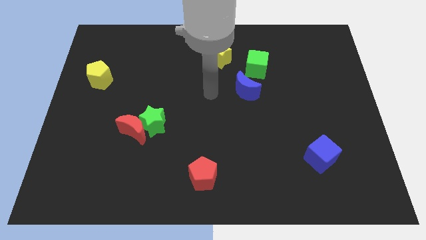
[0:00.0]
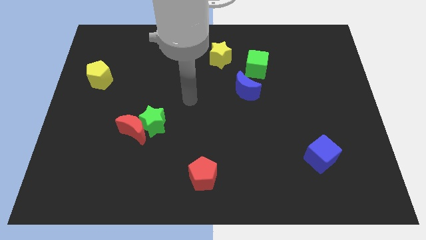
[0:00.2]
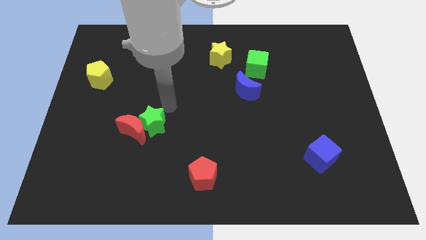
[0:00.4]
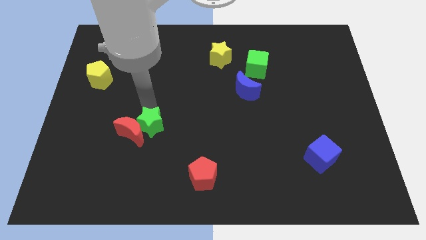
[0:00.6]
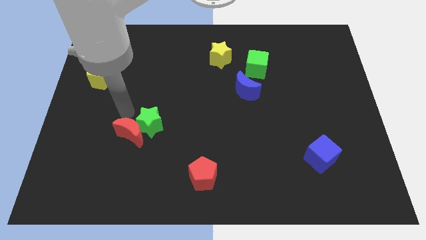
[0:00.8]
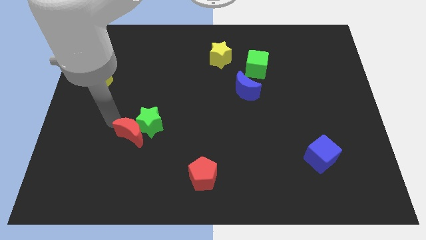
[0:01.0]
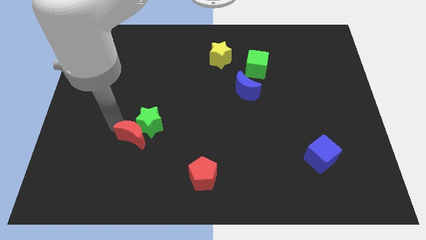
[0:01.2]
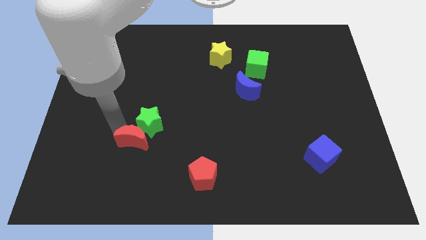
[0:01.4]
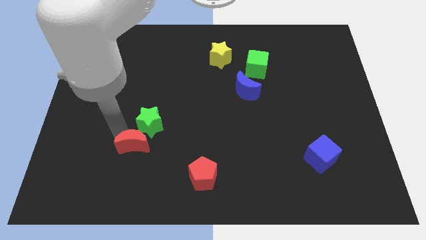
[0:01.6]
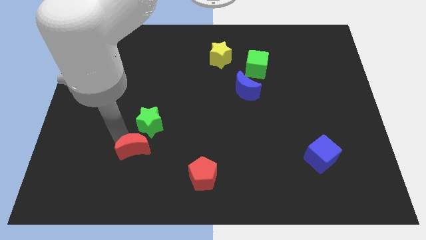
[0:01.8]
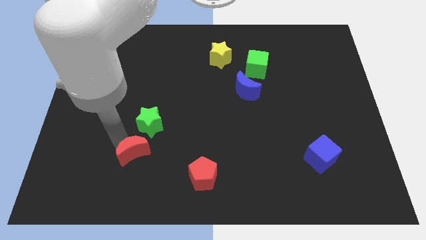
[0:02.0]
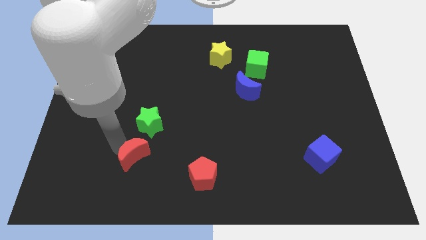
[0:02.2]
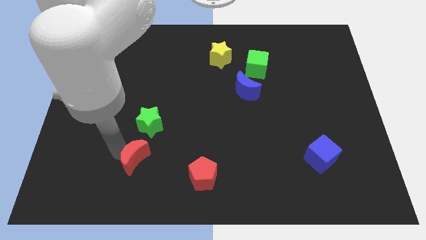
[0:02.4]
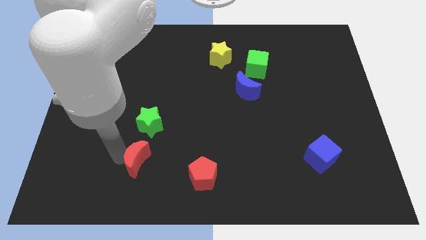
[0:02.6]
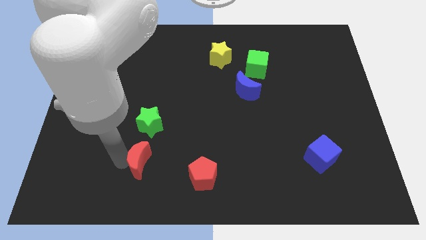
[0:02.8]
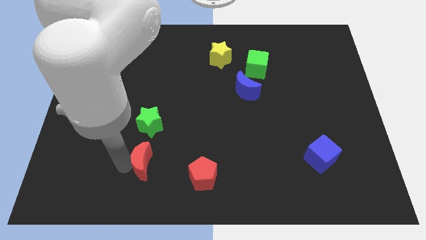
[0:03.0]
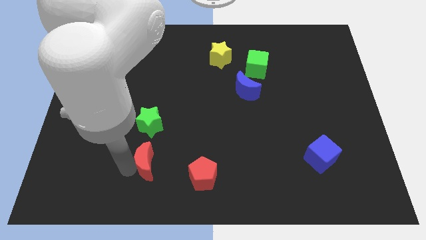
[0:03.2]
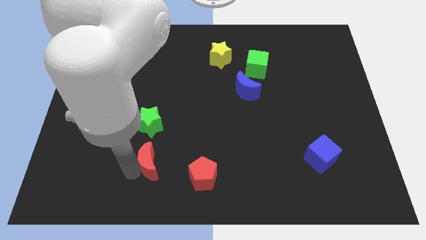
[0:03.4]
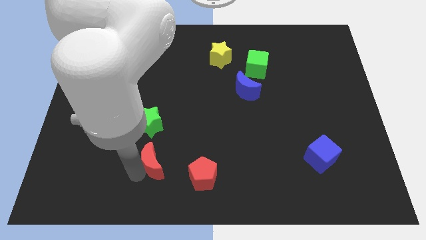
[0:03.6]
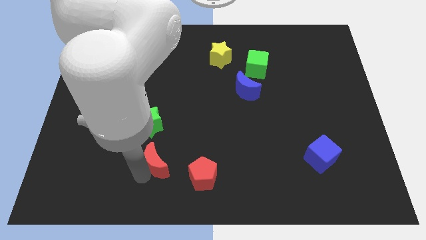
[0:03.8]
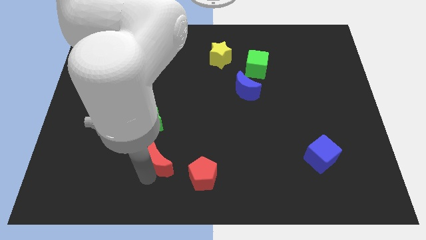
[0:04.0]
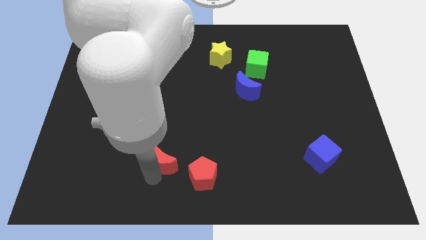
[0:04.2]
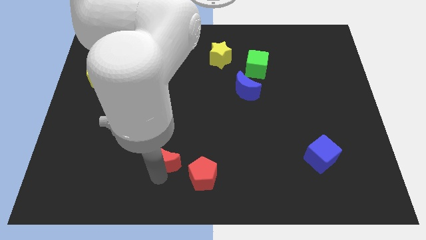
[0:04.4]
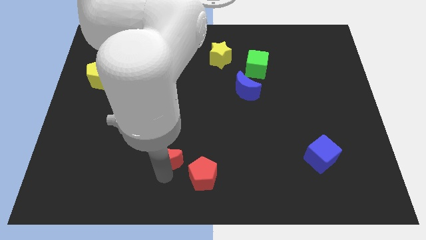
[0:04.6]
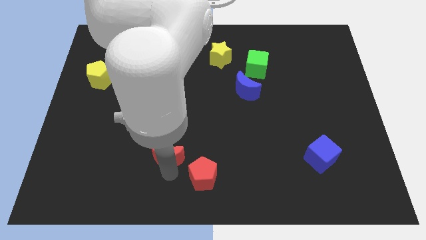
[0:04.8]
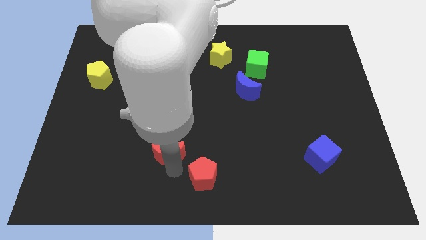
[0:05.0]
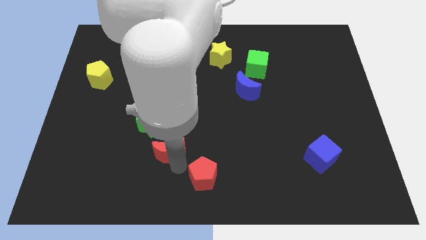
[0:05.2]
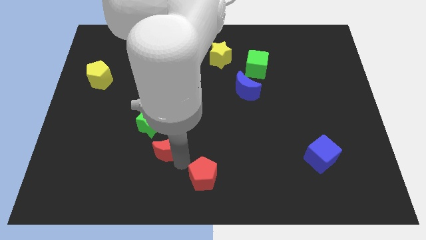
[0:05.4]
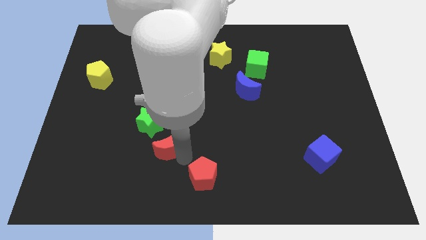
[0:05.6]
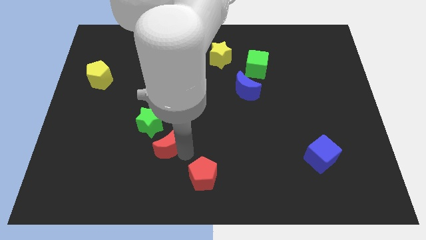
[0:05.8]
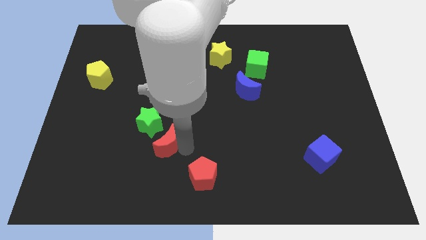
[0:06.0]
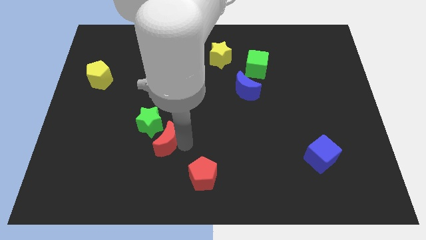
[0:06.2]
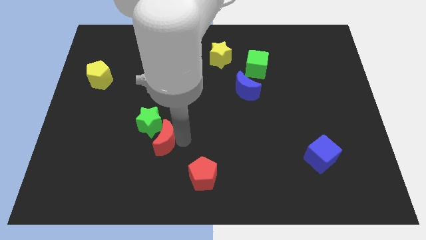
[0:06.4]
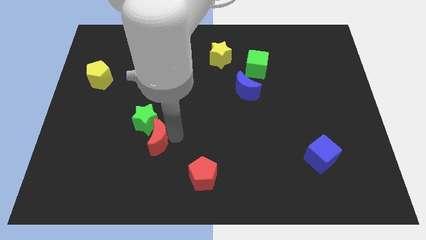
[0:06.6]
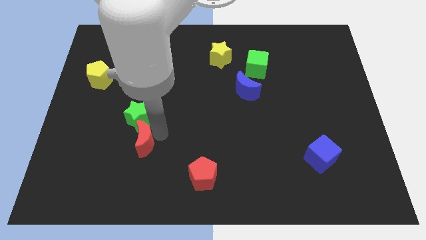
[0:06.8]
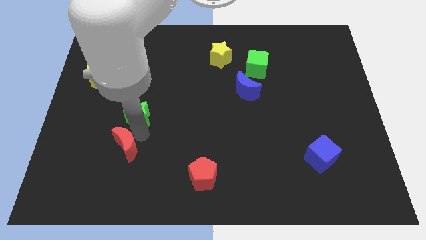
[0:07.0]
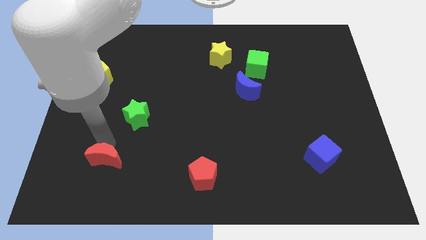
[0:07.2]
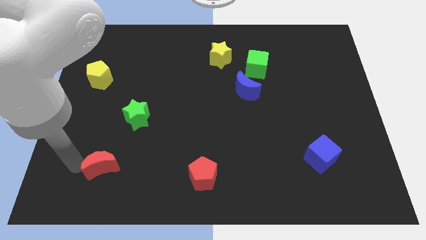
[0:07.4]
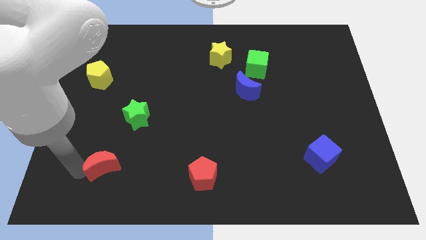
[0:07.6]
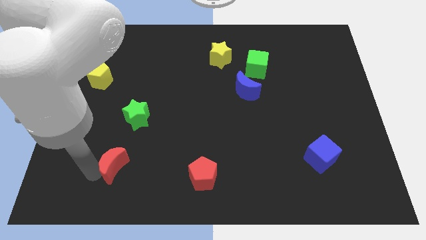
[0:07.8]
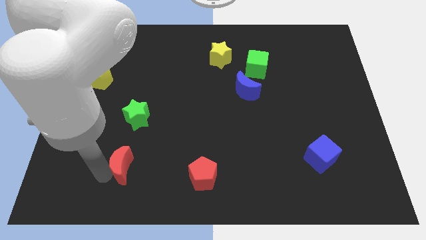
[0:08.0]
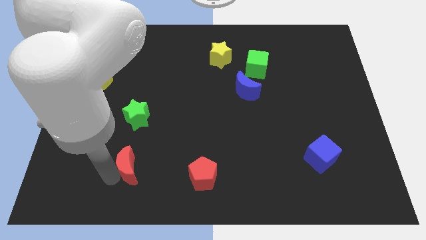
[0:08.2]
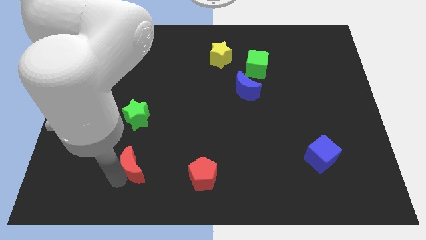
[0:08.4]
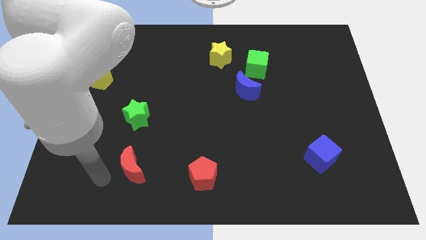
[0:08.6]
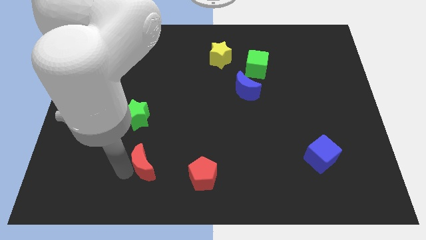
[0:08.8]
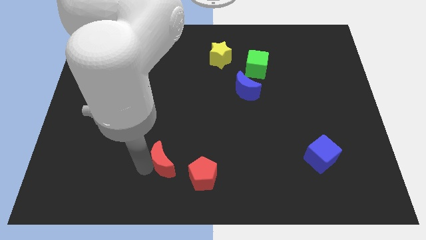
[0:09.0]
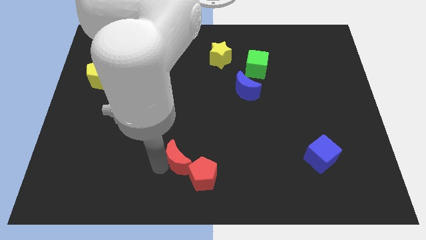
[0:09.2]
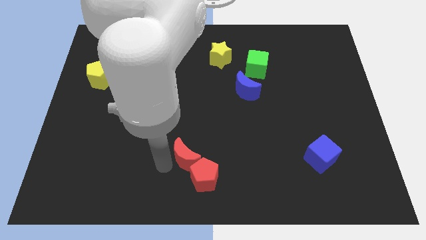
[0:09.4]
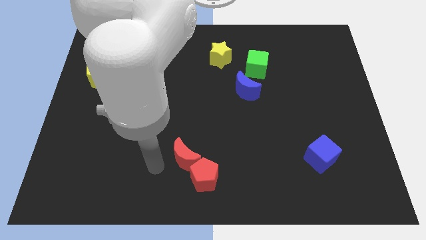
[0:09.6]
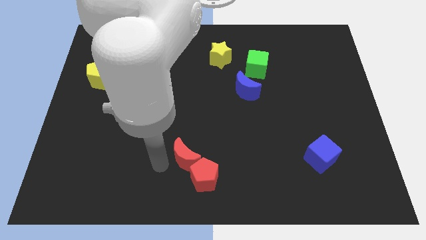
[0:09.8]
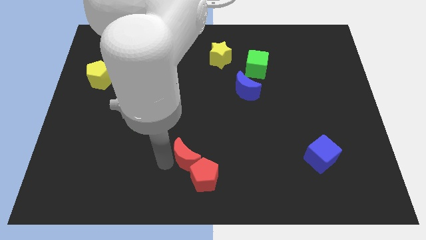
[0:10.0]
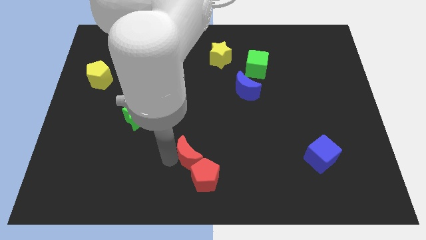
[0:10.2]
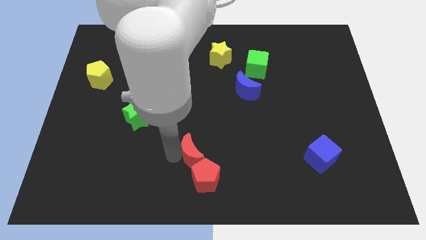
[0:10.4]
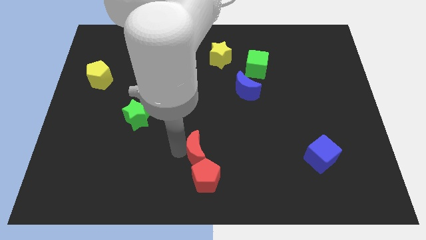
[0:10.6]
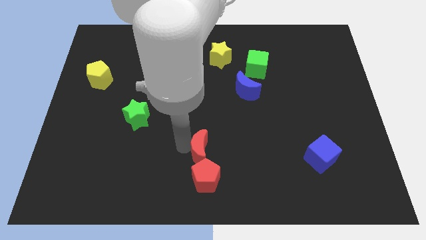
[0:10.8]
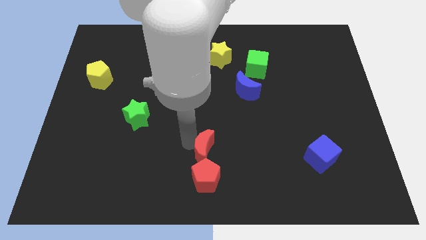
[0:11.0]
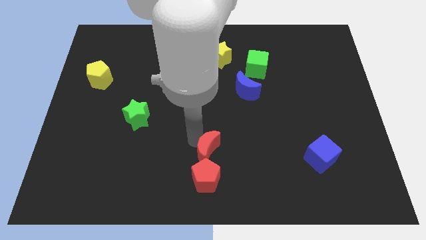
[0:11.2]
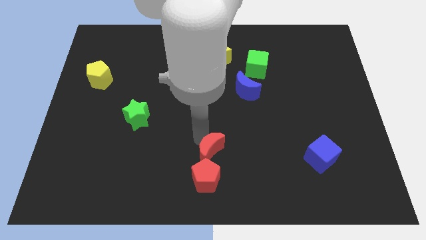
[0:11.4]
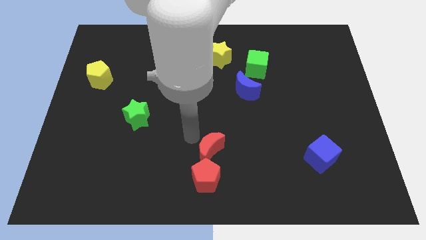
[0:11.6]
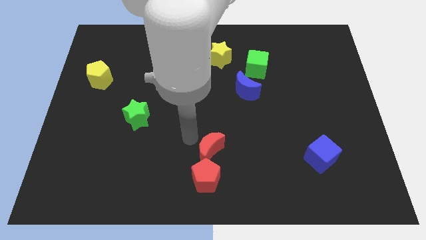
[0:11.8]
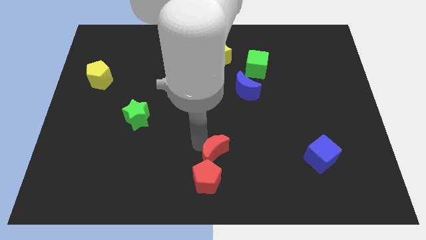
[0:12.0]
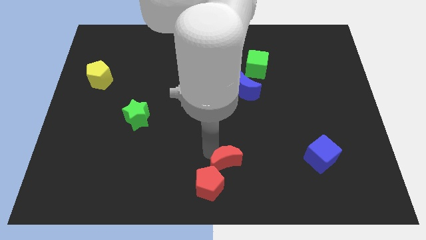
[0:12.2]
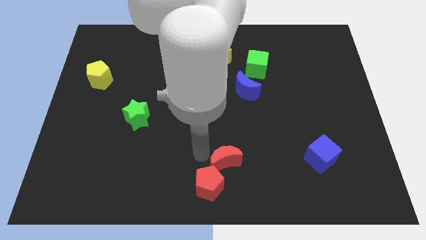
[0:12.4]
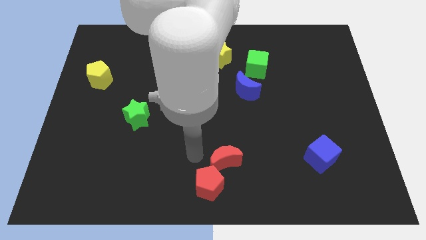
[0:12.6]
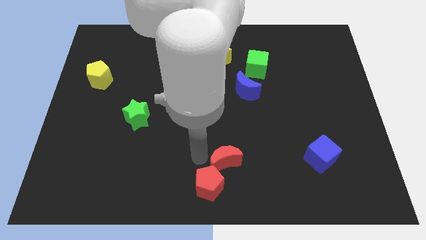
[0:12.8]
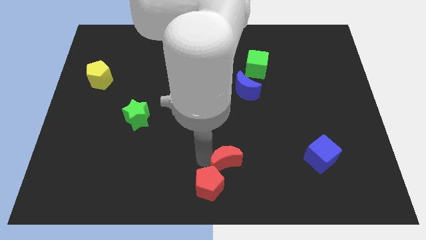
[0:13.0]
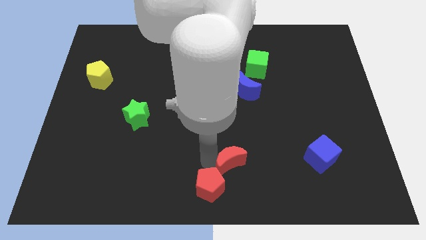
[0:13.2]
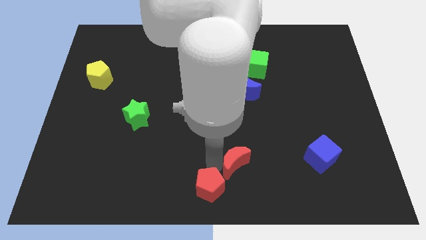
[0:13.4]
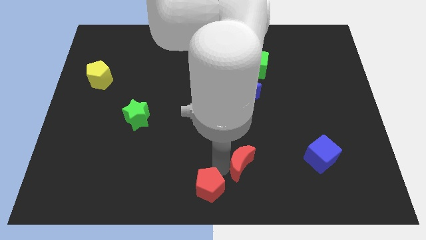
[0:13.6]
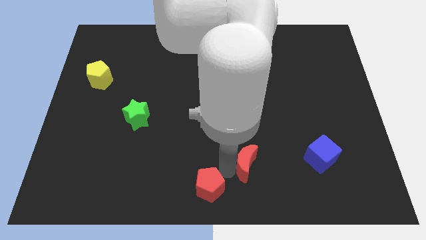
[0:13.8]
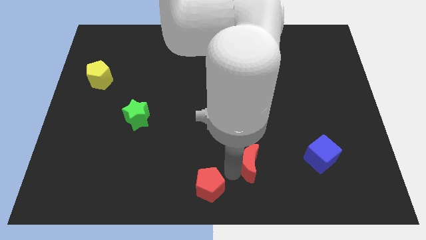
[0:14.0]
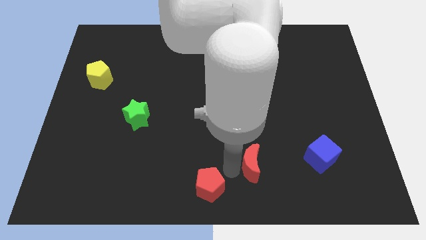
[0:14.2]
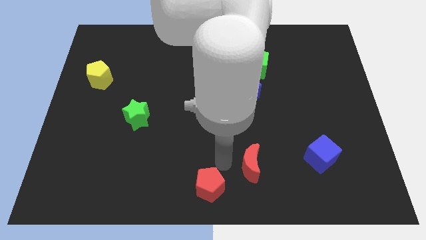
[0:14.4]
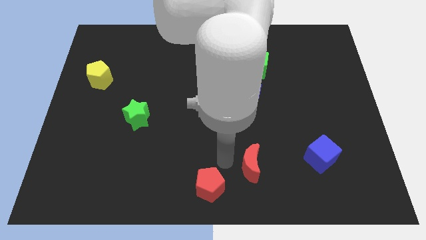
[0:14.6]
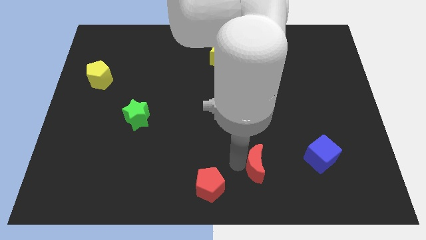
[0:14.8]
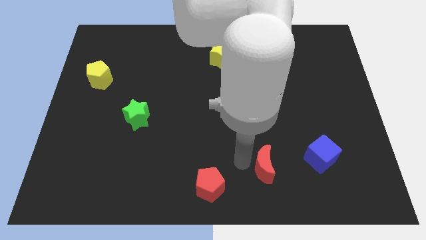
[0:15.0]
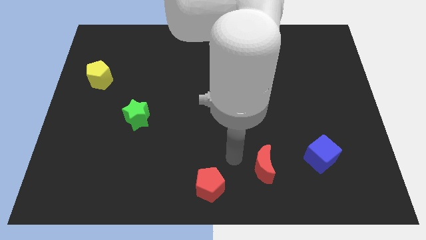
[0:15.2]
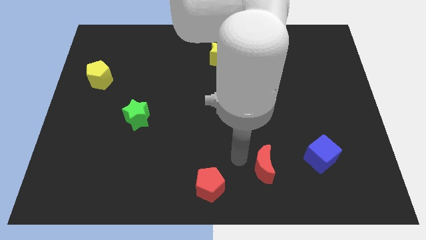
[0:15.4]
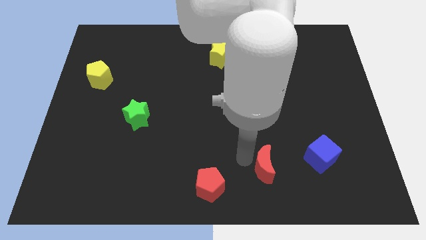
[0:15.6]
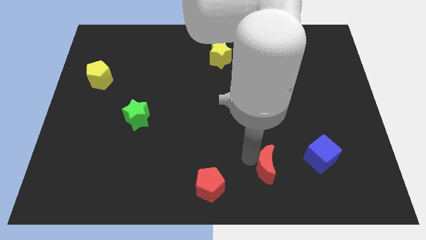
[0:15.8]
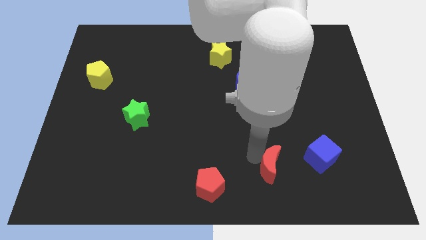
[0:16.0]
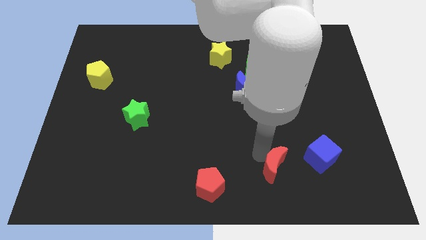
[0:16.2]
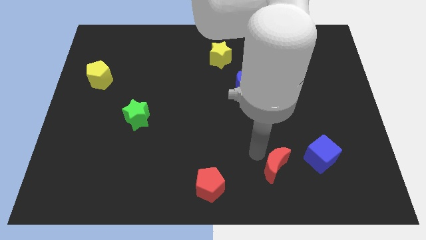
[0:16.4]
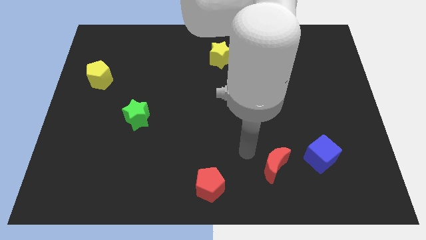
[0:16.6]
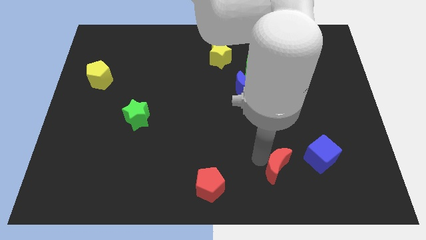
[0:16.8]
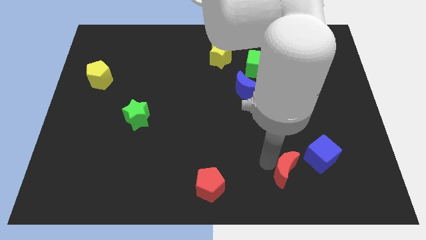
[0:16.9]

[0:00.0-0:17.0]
put the red moon to the bottom left of the blue cube
